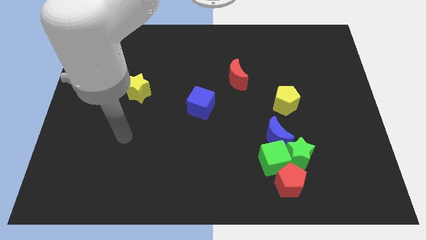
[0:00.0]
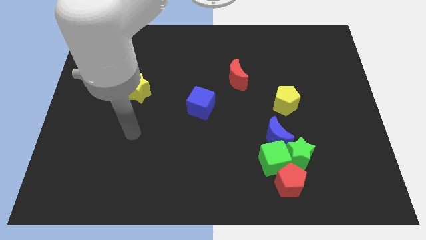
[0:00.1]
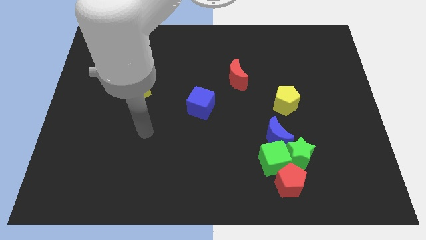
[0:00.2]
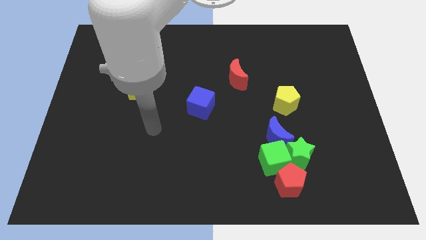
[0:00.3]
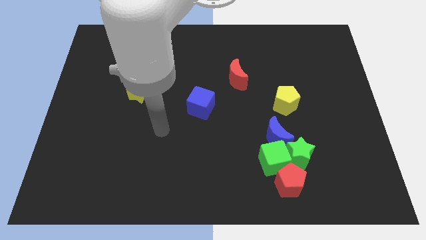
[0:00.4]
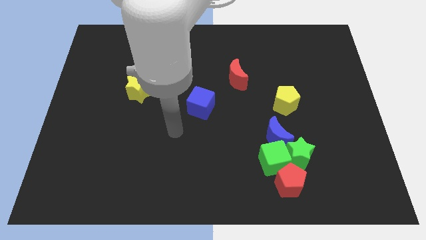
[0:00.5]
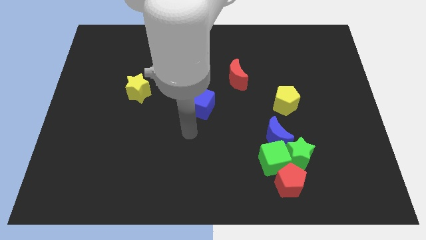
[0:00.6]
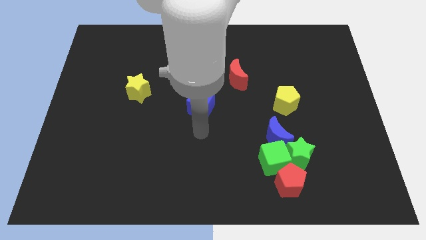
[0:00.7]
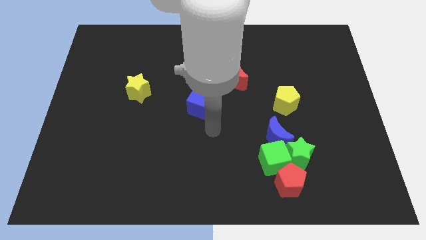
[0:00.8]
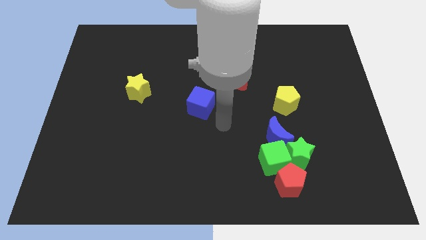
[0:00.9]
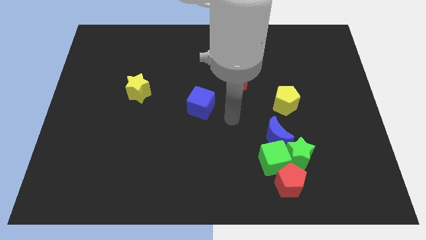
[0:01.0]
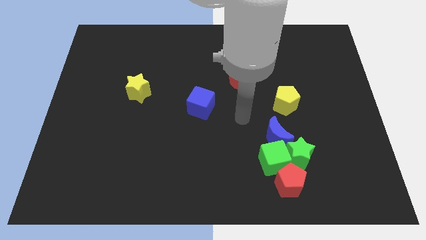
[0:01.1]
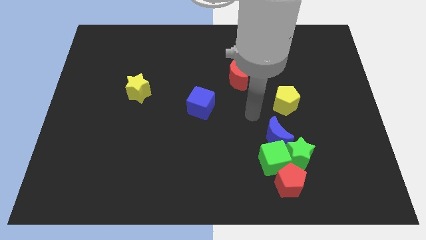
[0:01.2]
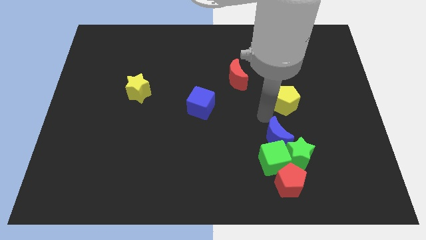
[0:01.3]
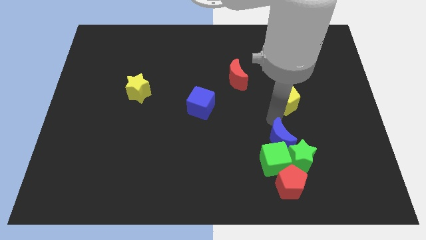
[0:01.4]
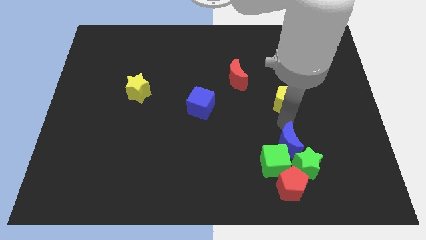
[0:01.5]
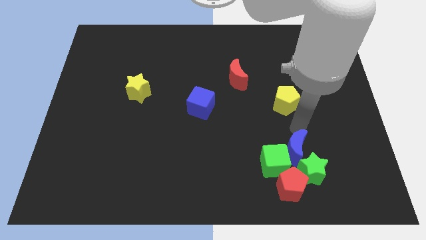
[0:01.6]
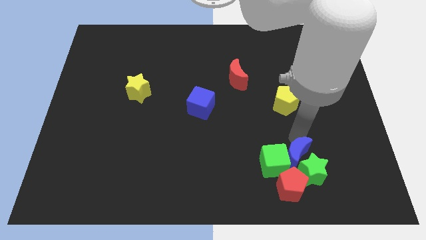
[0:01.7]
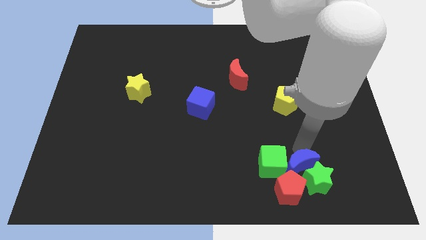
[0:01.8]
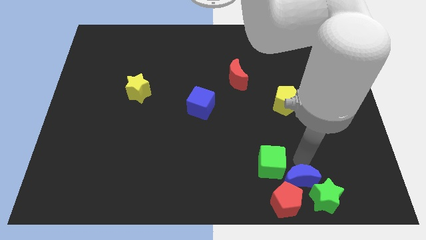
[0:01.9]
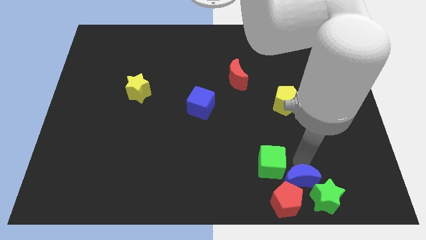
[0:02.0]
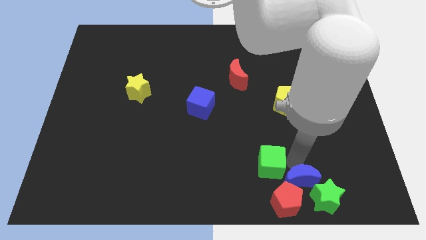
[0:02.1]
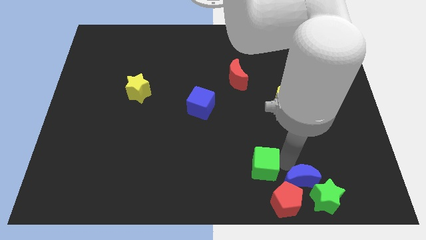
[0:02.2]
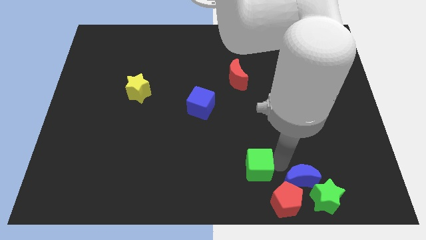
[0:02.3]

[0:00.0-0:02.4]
separate the green cube from the green star, red pentagon, and blue moon

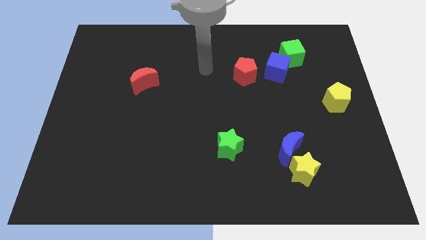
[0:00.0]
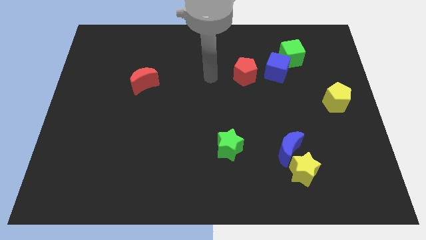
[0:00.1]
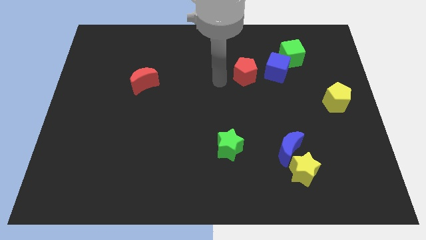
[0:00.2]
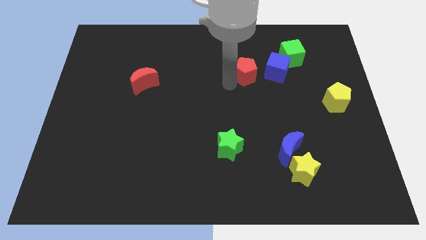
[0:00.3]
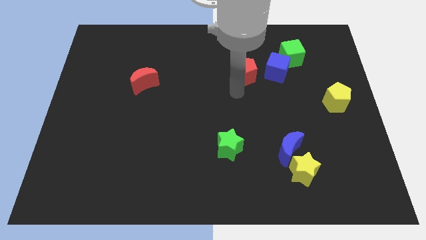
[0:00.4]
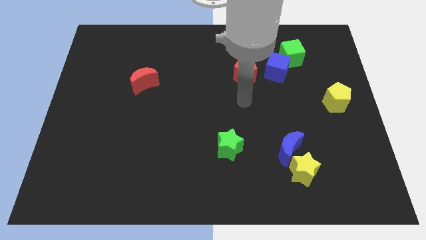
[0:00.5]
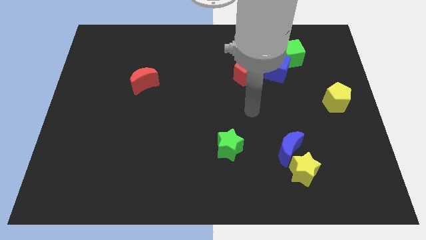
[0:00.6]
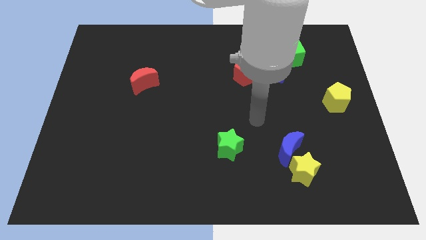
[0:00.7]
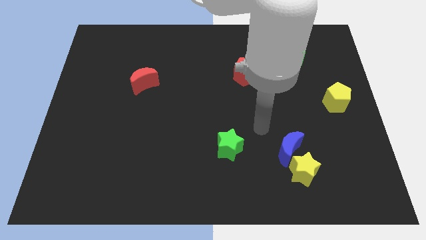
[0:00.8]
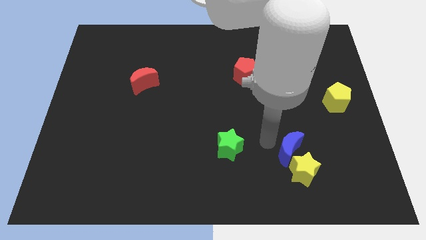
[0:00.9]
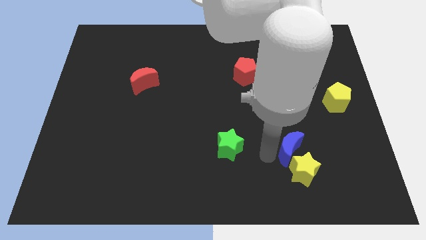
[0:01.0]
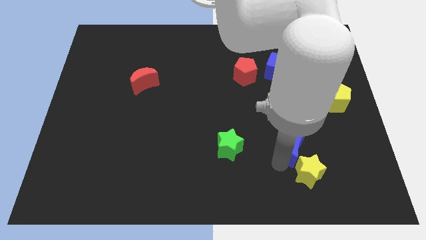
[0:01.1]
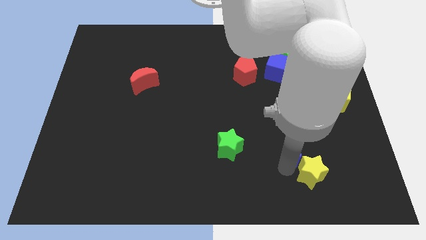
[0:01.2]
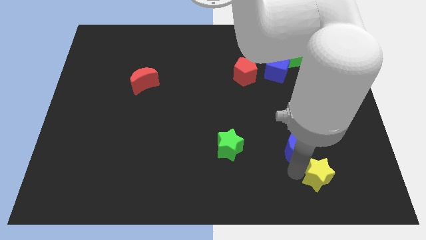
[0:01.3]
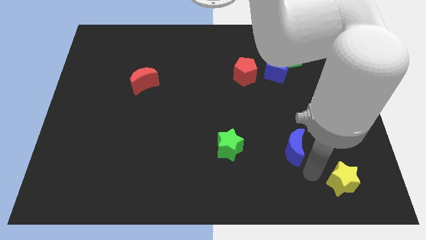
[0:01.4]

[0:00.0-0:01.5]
separate the blue moon from the yellow star

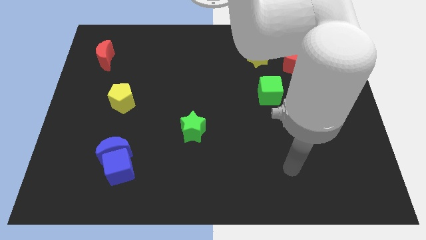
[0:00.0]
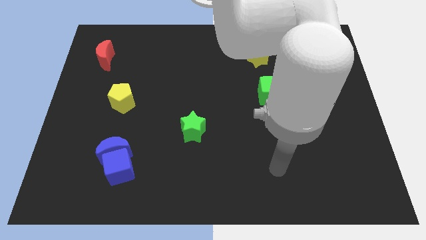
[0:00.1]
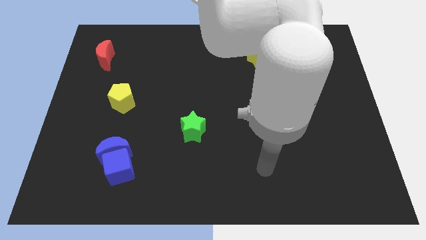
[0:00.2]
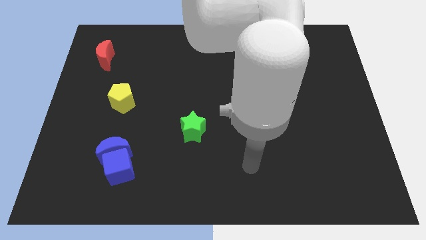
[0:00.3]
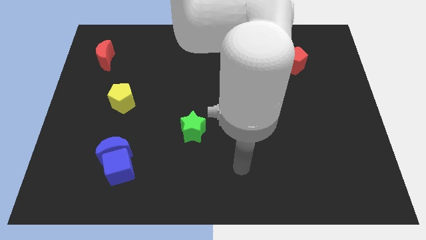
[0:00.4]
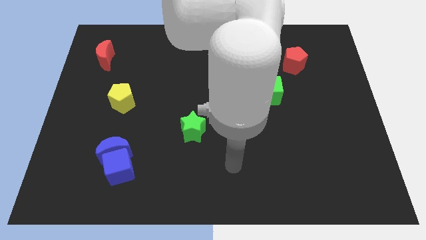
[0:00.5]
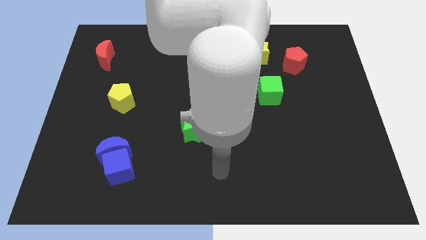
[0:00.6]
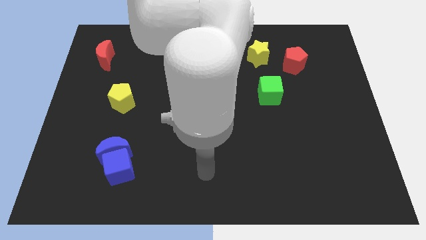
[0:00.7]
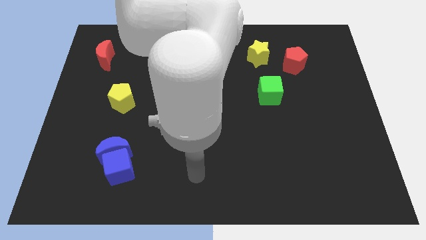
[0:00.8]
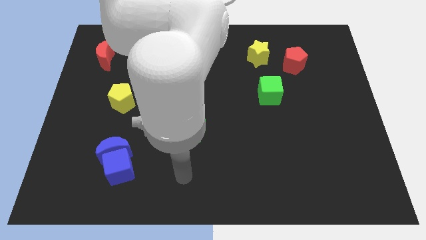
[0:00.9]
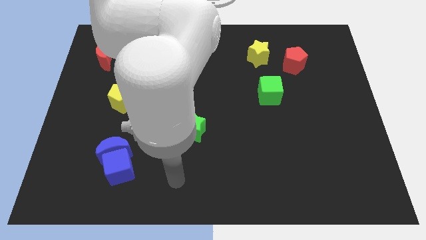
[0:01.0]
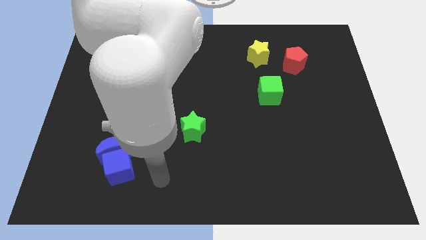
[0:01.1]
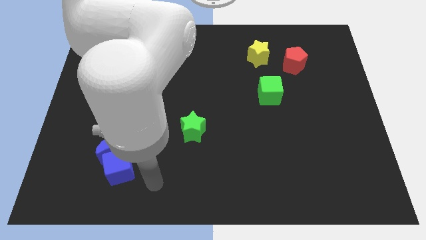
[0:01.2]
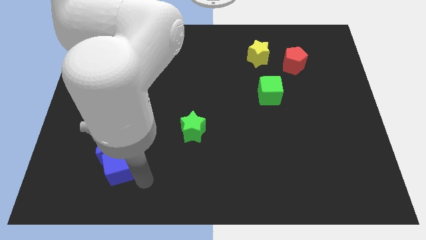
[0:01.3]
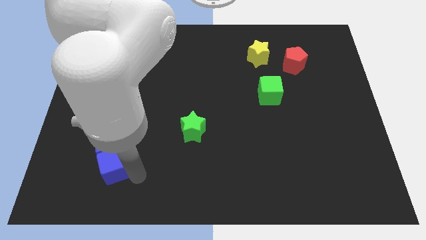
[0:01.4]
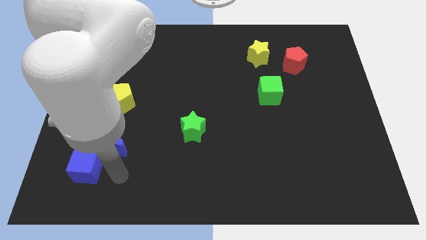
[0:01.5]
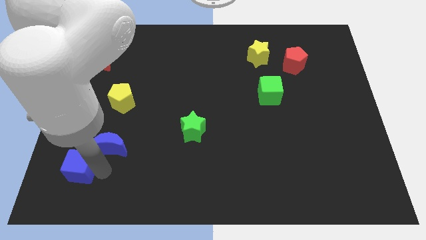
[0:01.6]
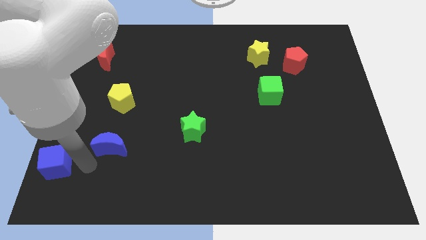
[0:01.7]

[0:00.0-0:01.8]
separate the blue moon from the blue cube

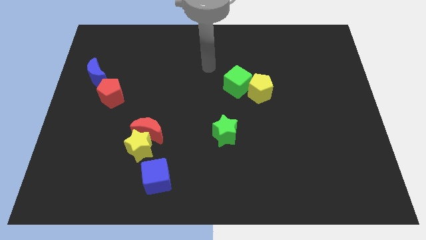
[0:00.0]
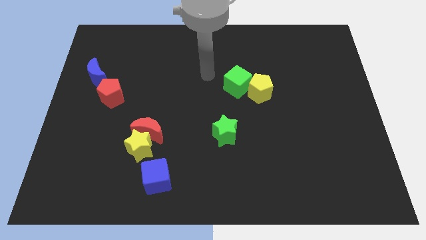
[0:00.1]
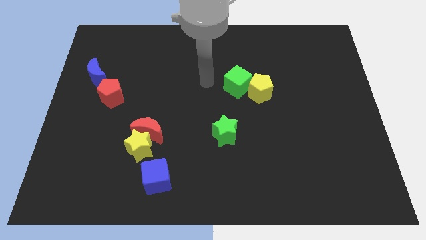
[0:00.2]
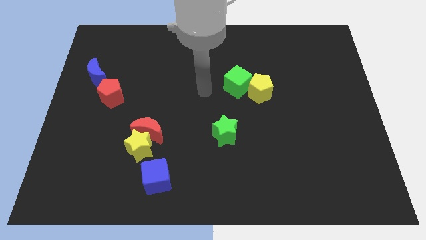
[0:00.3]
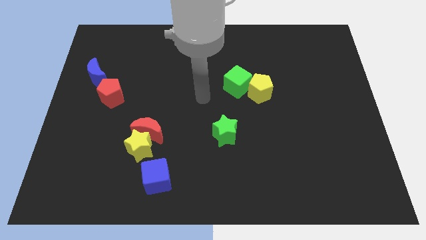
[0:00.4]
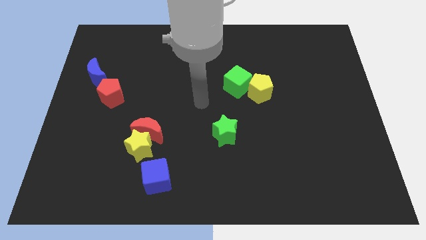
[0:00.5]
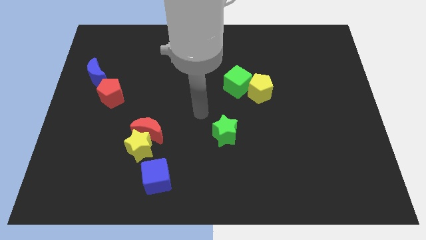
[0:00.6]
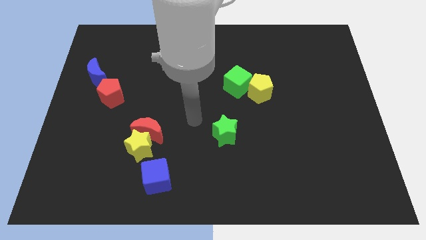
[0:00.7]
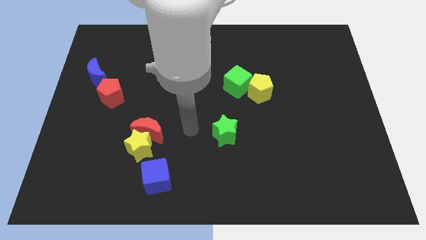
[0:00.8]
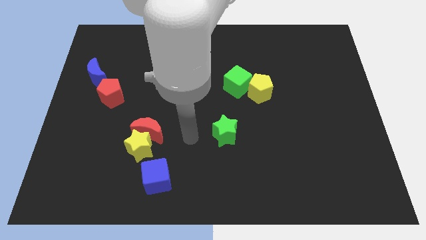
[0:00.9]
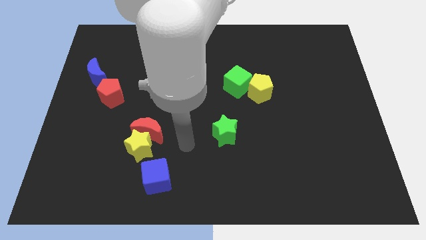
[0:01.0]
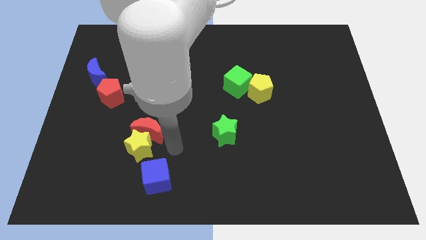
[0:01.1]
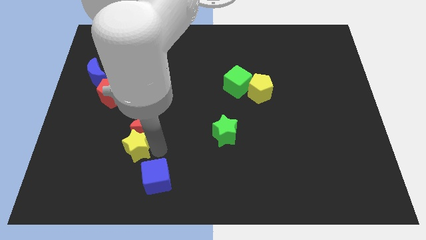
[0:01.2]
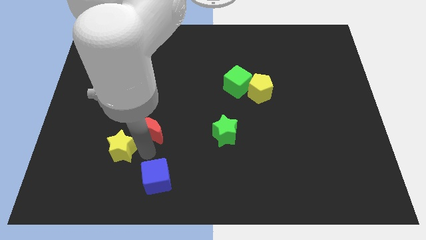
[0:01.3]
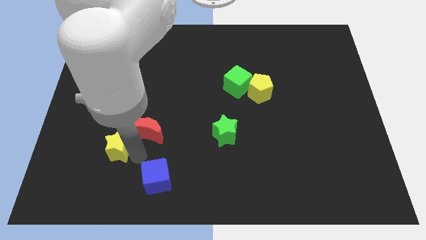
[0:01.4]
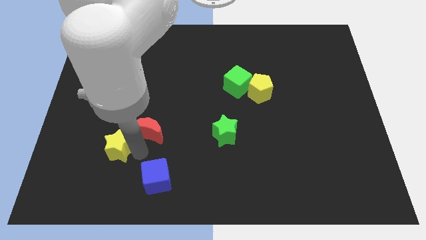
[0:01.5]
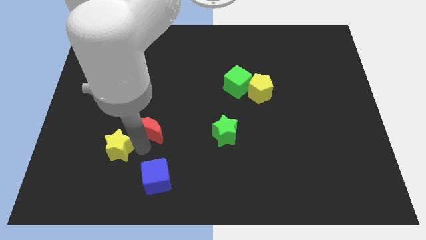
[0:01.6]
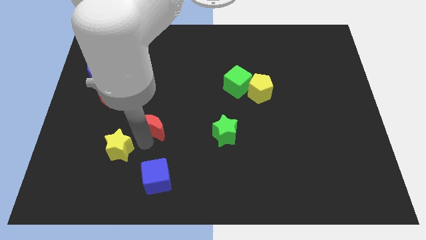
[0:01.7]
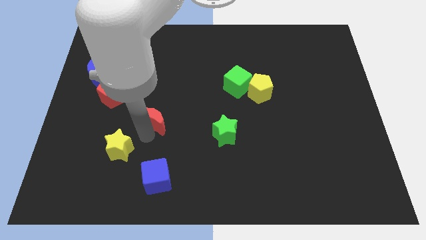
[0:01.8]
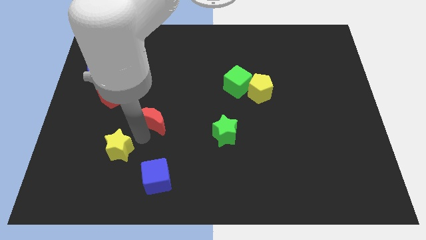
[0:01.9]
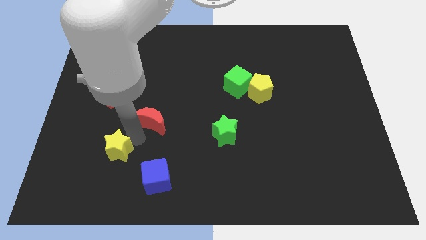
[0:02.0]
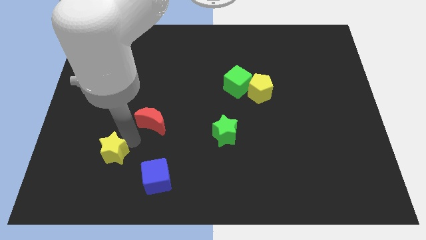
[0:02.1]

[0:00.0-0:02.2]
move the red moon away from the yellow star

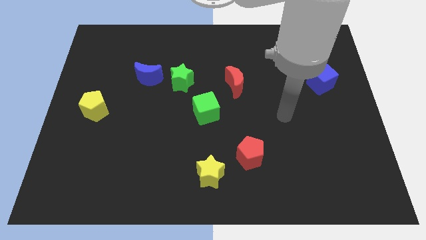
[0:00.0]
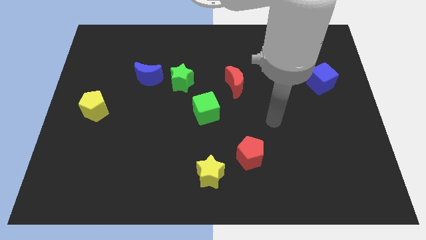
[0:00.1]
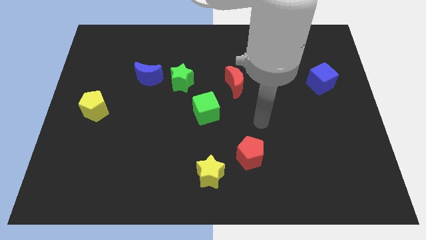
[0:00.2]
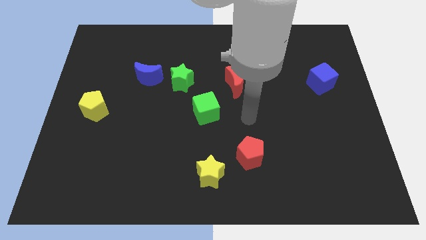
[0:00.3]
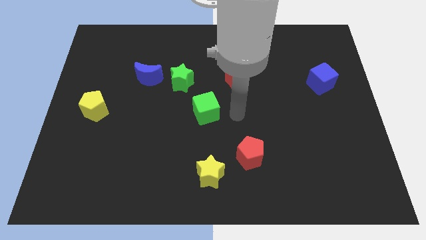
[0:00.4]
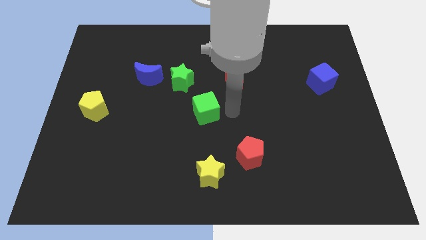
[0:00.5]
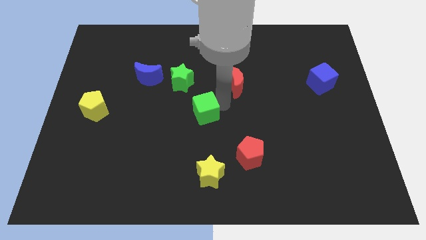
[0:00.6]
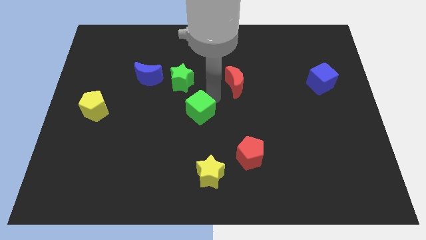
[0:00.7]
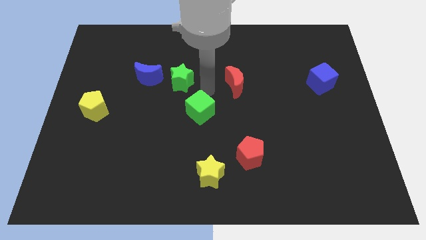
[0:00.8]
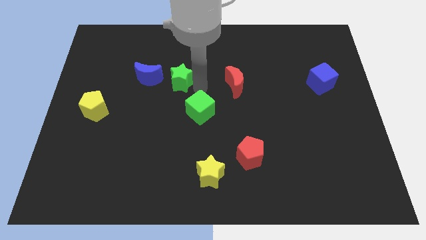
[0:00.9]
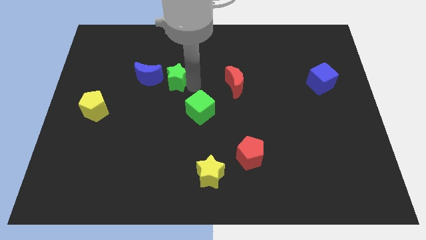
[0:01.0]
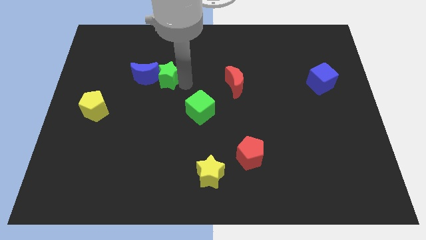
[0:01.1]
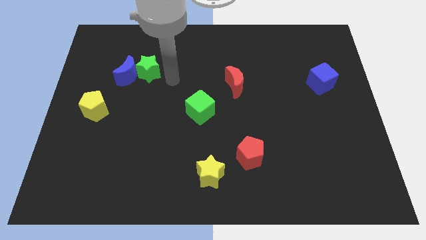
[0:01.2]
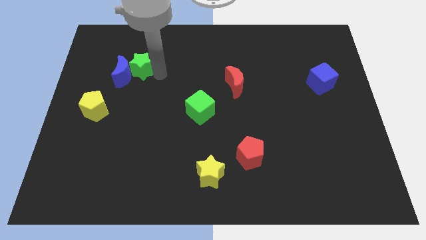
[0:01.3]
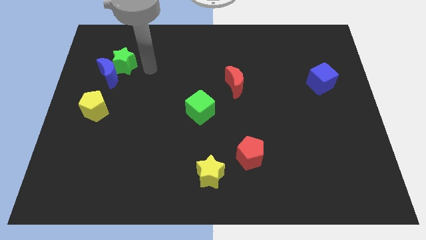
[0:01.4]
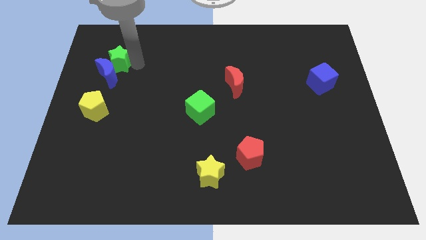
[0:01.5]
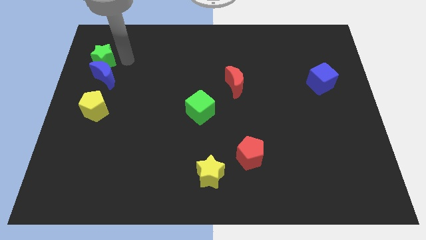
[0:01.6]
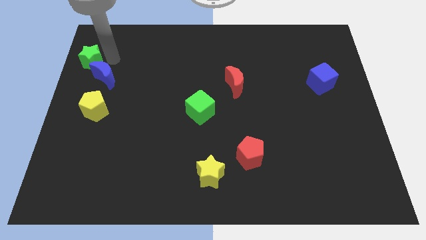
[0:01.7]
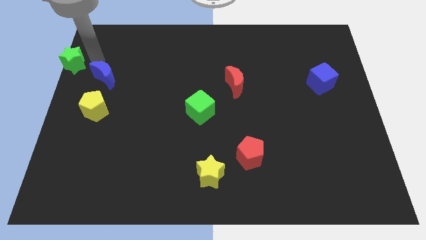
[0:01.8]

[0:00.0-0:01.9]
separate the blue moon from the green star
